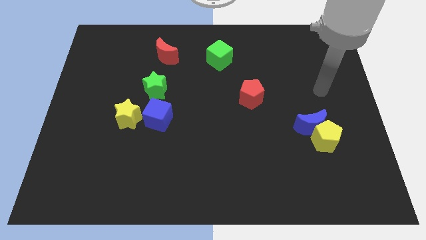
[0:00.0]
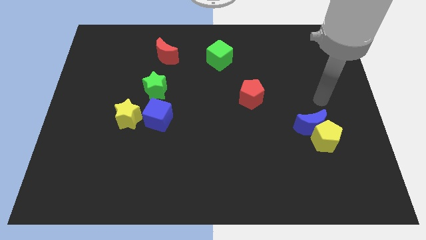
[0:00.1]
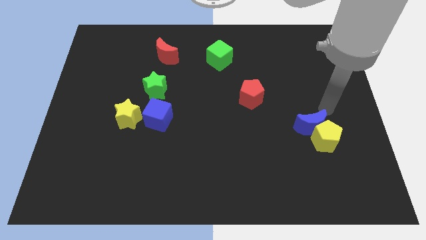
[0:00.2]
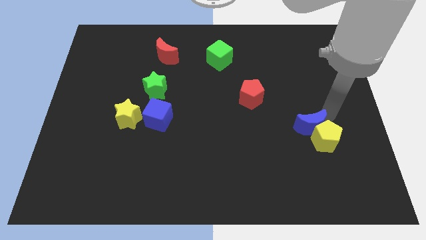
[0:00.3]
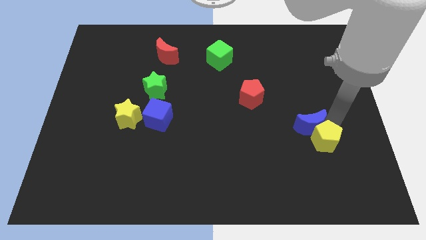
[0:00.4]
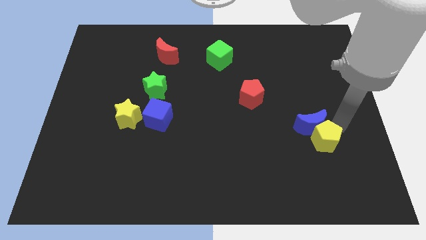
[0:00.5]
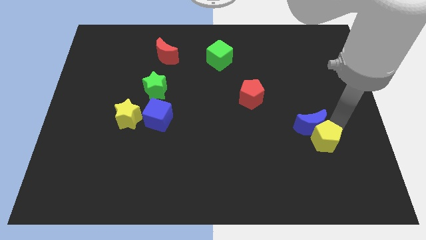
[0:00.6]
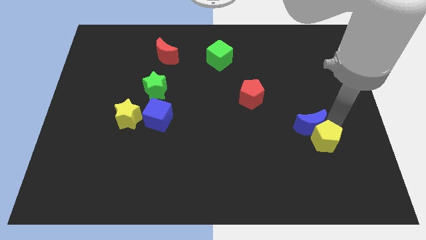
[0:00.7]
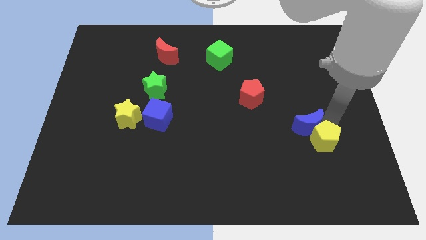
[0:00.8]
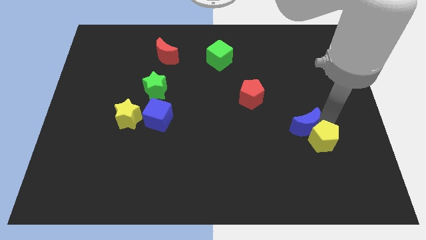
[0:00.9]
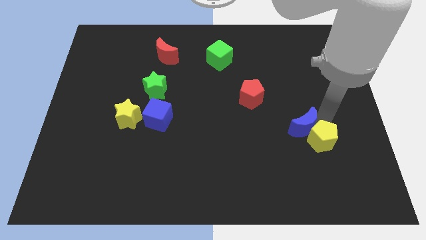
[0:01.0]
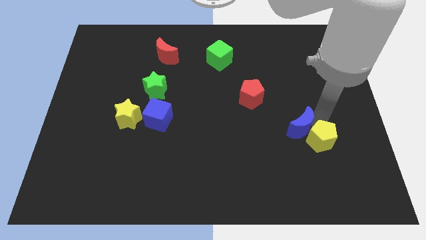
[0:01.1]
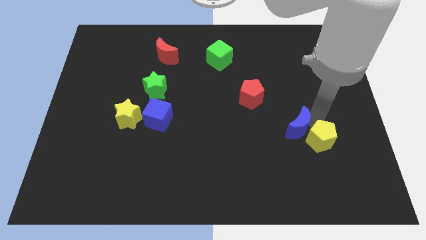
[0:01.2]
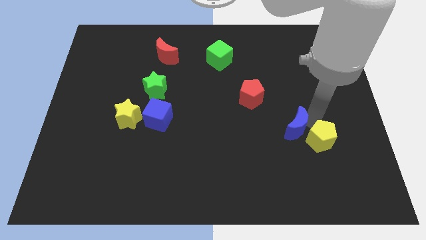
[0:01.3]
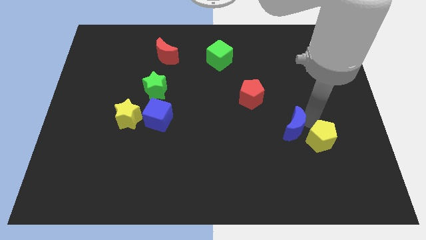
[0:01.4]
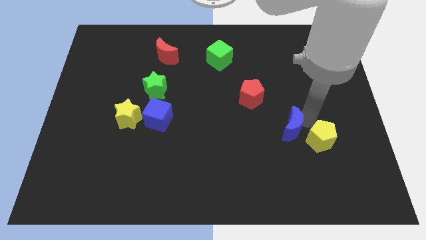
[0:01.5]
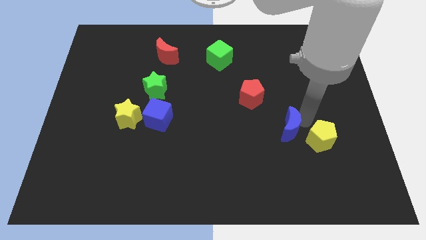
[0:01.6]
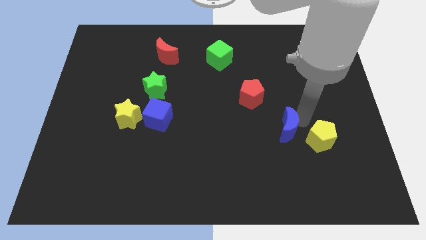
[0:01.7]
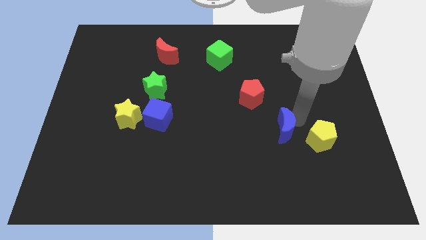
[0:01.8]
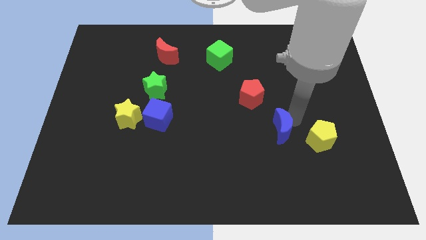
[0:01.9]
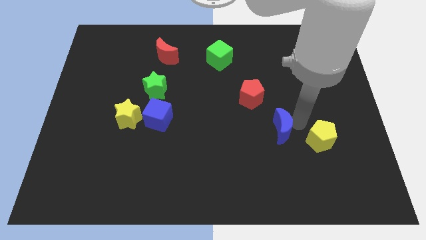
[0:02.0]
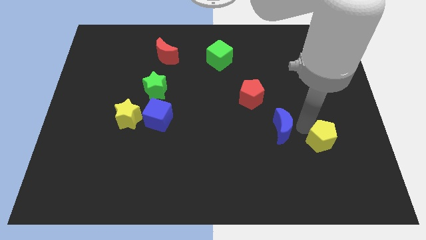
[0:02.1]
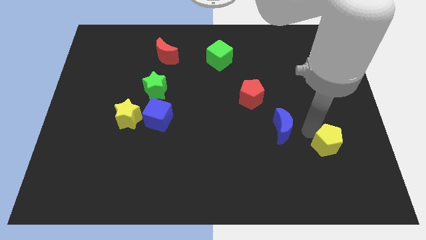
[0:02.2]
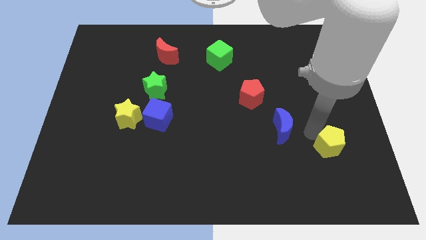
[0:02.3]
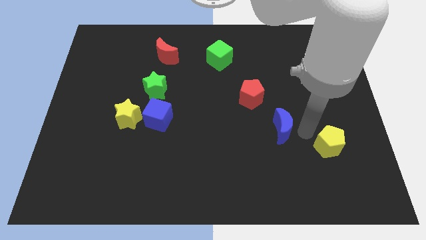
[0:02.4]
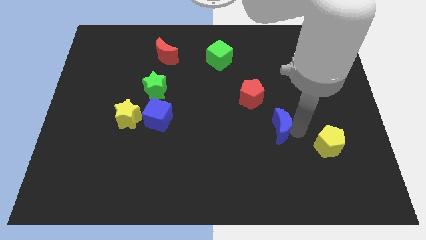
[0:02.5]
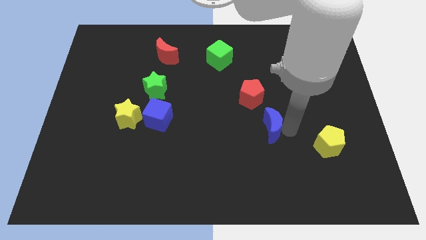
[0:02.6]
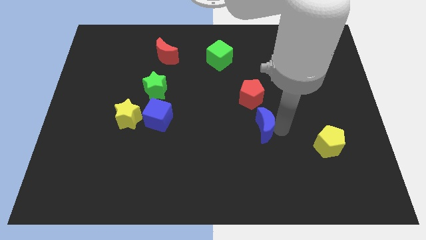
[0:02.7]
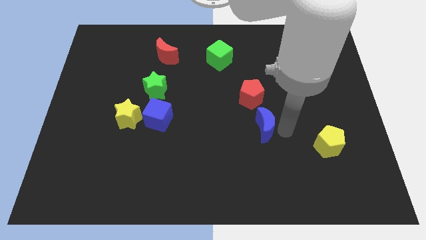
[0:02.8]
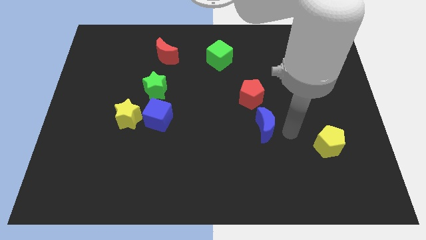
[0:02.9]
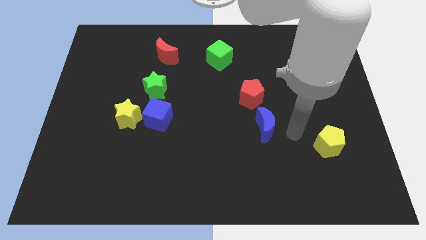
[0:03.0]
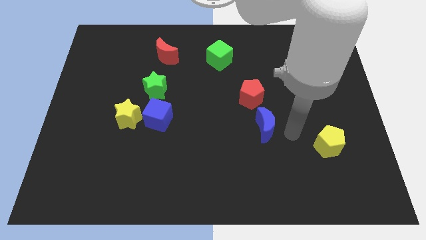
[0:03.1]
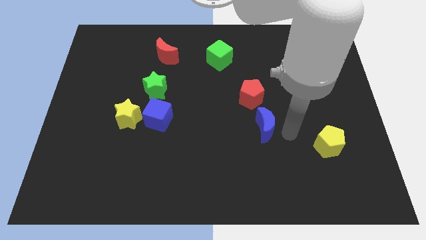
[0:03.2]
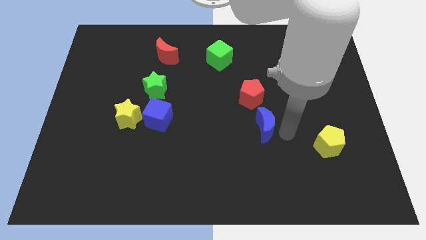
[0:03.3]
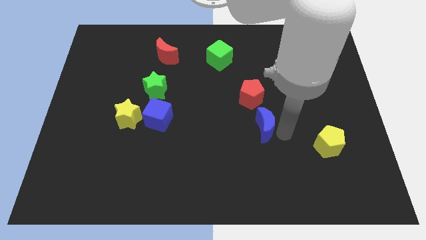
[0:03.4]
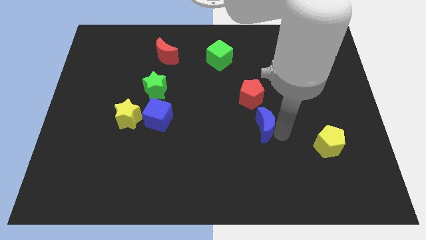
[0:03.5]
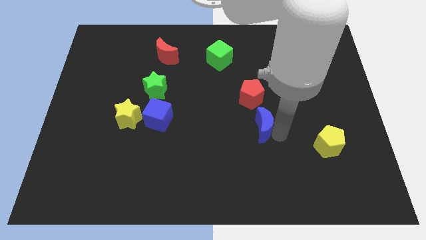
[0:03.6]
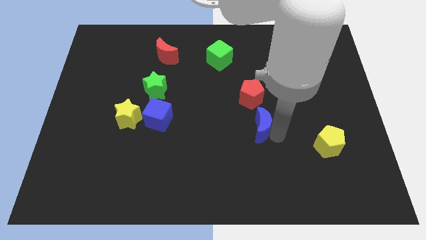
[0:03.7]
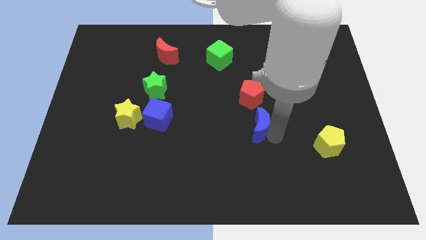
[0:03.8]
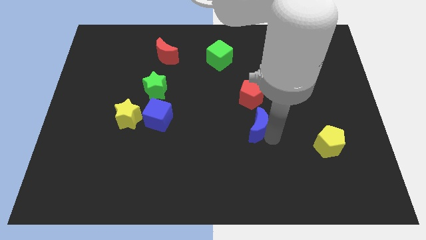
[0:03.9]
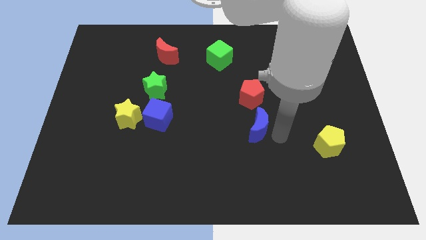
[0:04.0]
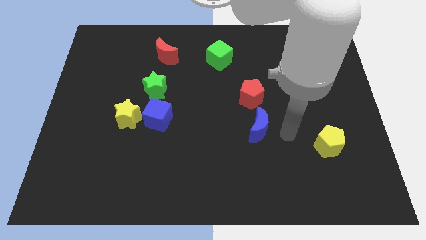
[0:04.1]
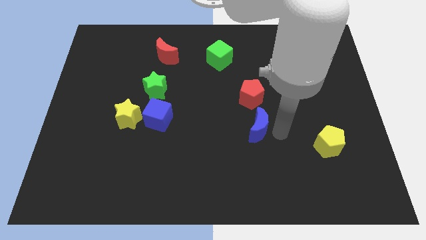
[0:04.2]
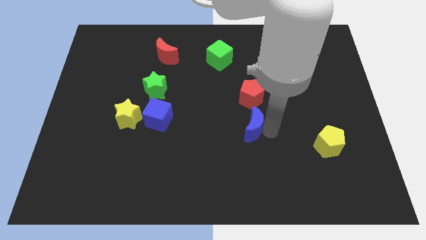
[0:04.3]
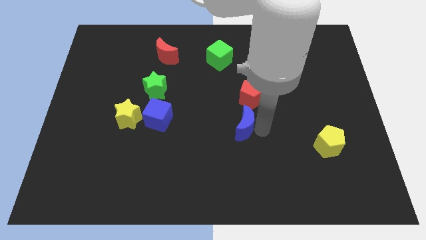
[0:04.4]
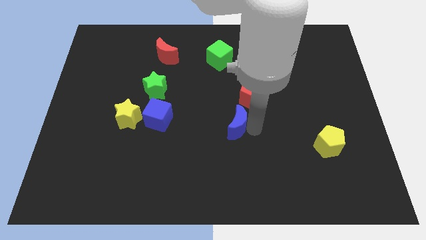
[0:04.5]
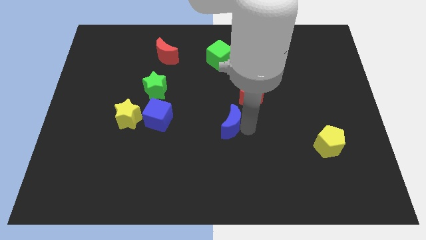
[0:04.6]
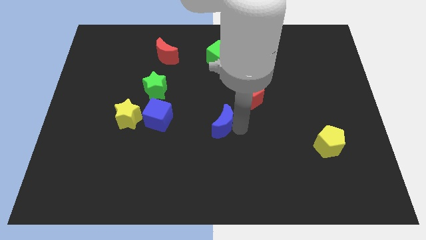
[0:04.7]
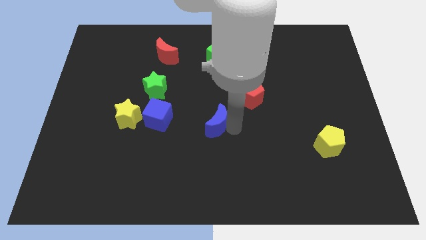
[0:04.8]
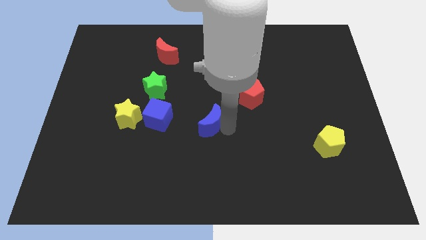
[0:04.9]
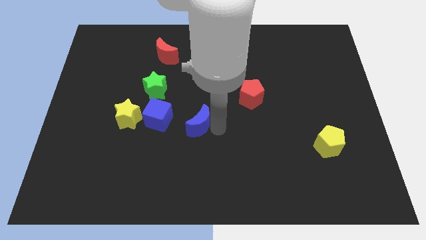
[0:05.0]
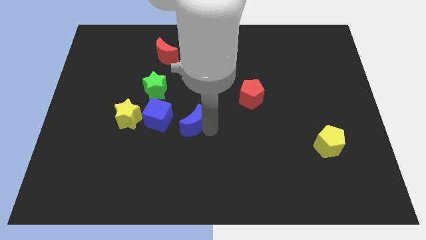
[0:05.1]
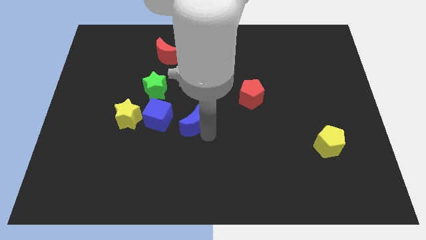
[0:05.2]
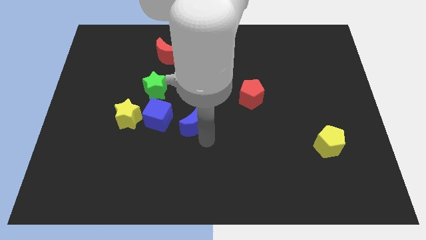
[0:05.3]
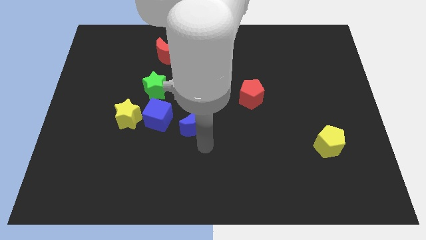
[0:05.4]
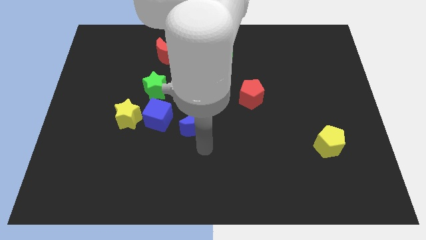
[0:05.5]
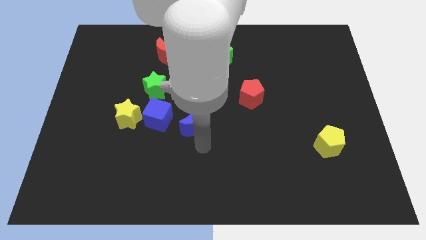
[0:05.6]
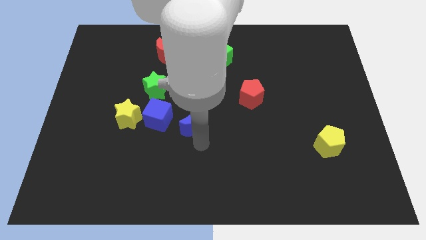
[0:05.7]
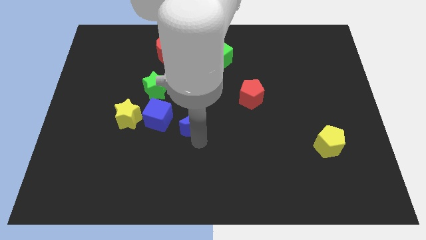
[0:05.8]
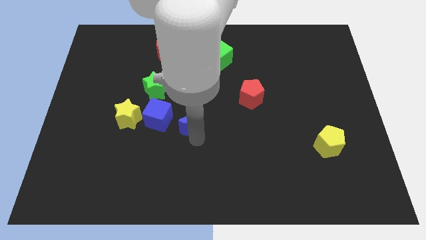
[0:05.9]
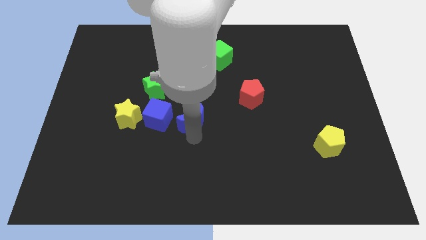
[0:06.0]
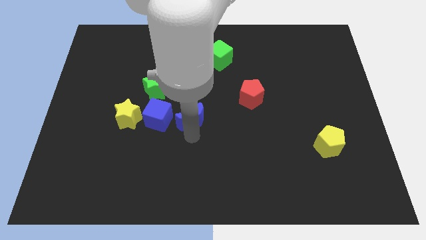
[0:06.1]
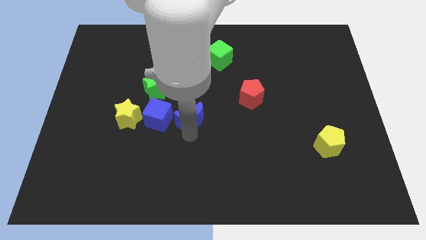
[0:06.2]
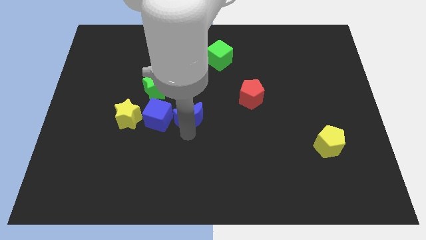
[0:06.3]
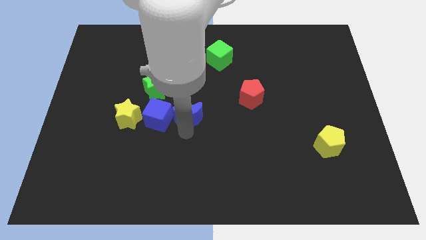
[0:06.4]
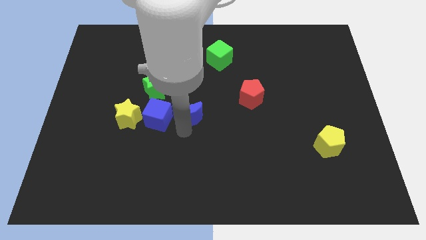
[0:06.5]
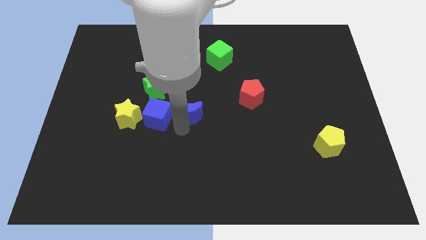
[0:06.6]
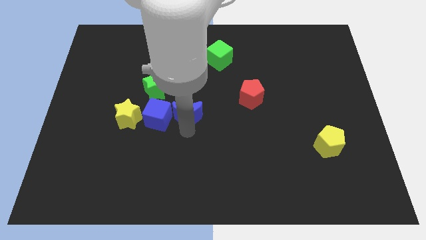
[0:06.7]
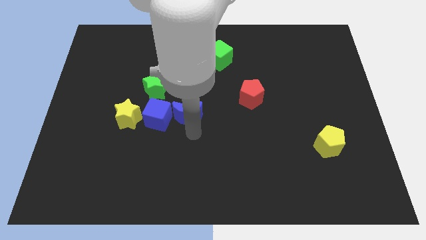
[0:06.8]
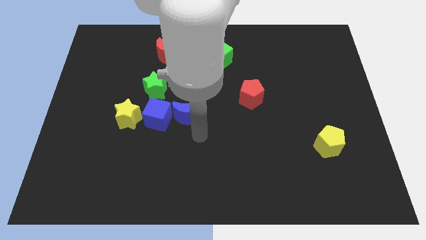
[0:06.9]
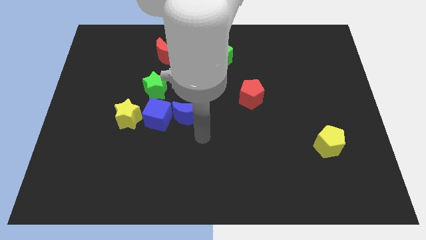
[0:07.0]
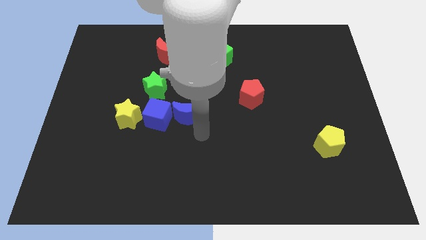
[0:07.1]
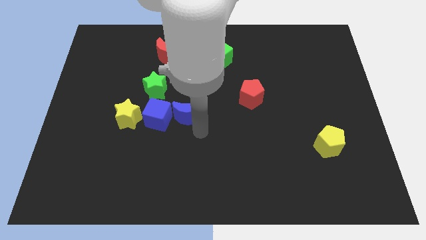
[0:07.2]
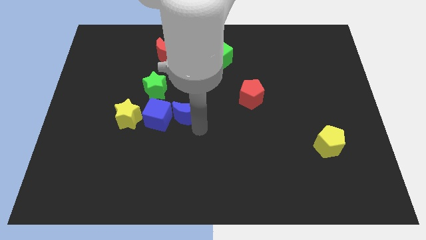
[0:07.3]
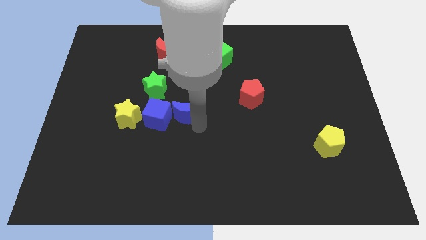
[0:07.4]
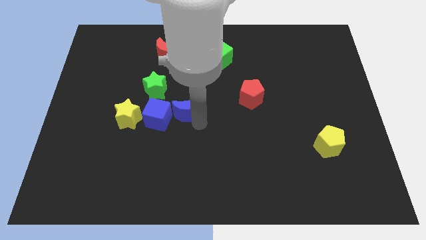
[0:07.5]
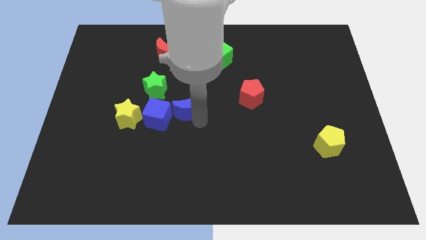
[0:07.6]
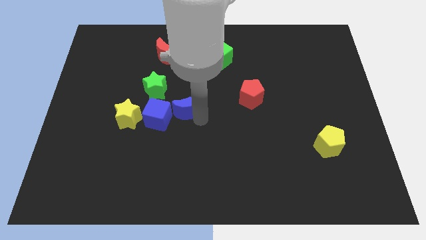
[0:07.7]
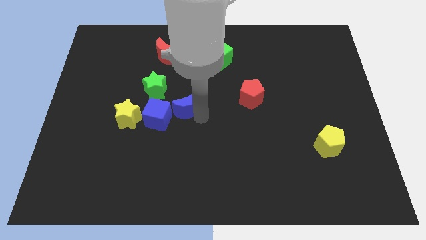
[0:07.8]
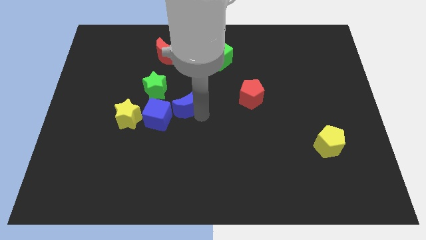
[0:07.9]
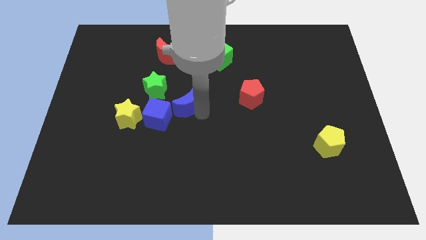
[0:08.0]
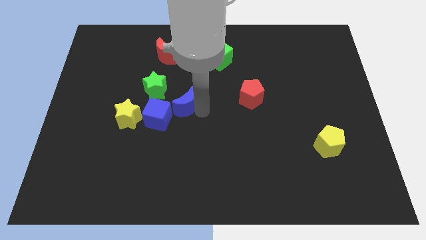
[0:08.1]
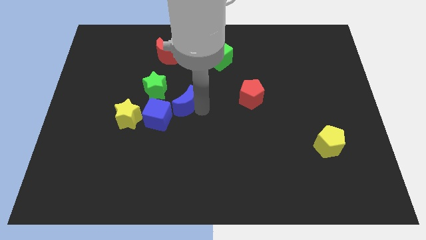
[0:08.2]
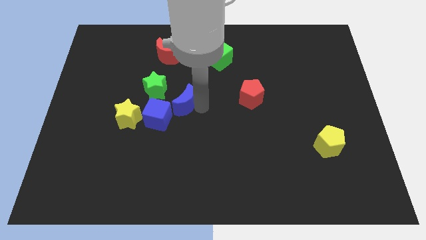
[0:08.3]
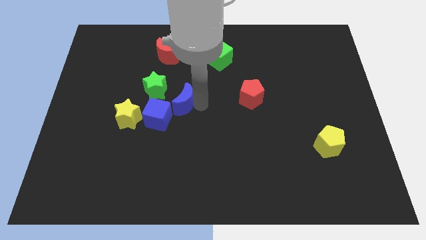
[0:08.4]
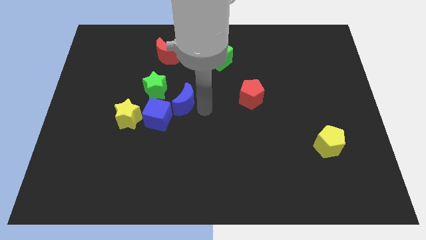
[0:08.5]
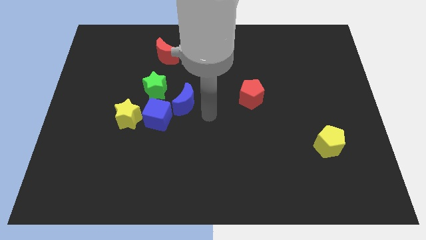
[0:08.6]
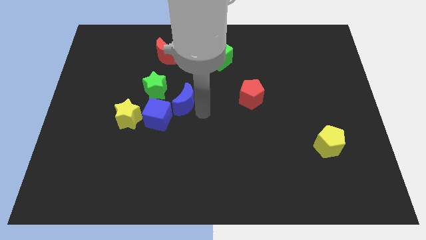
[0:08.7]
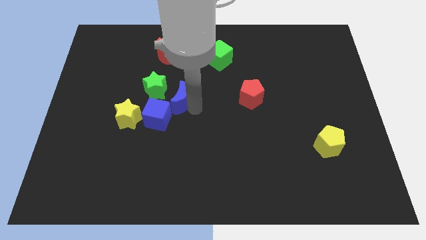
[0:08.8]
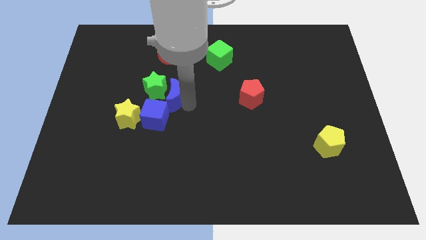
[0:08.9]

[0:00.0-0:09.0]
put the blue moon to the green star
